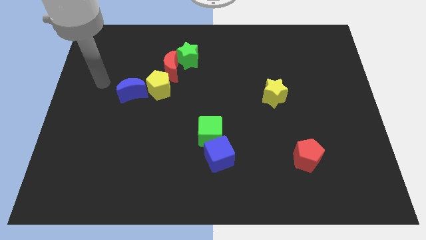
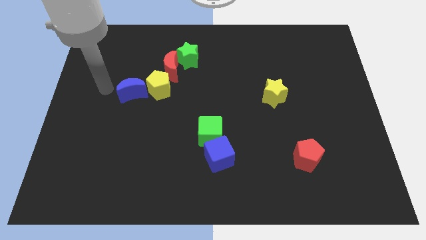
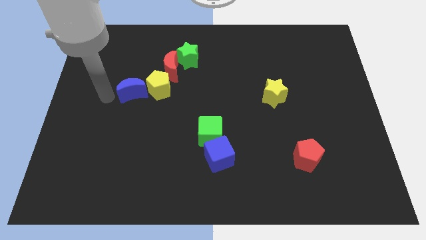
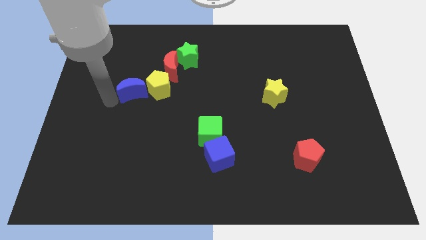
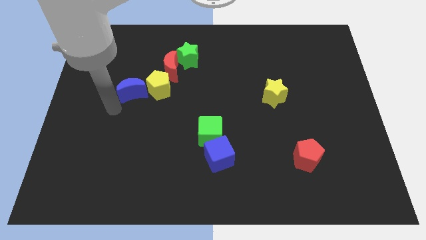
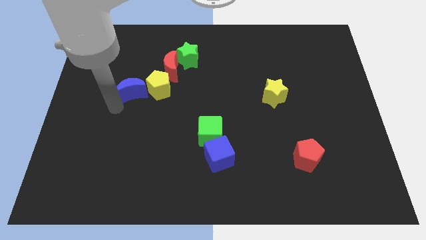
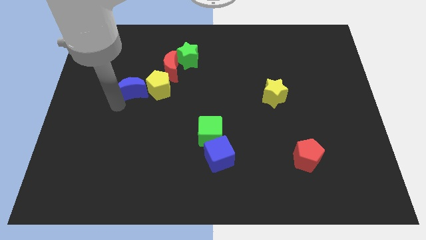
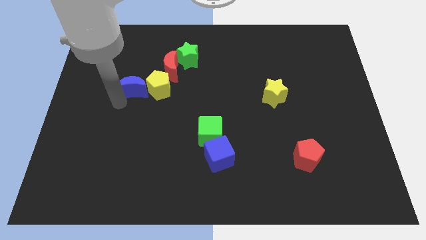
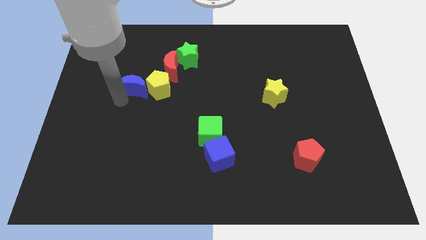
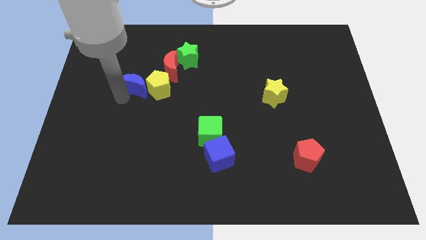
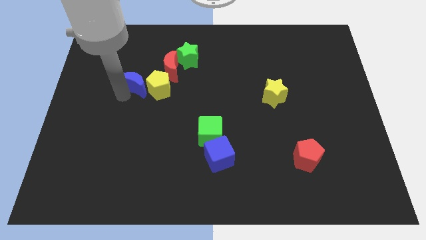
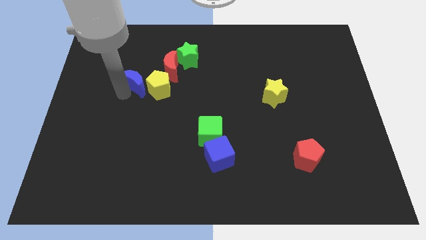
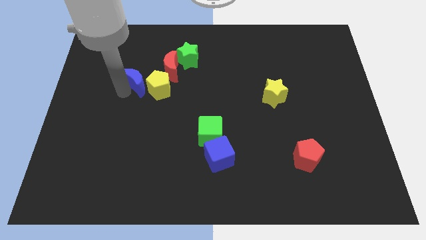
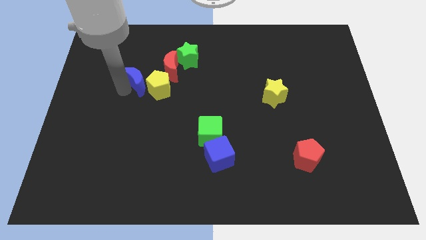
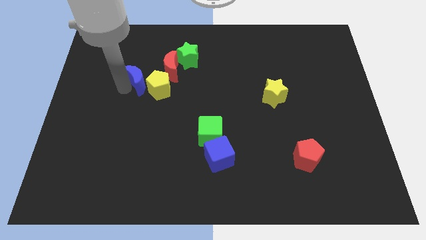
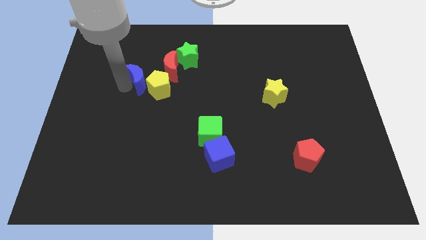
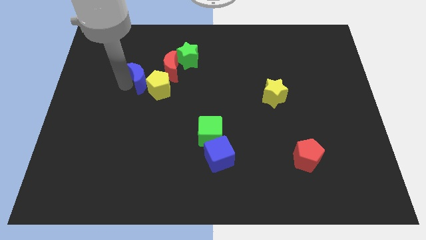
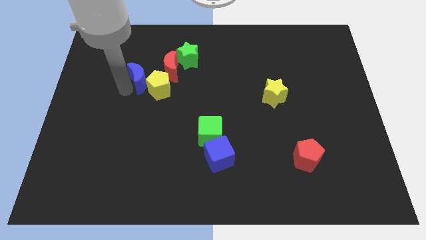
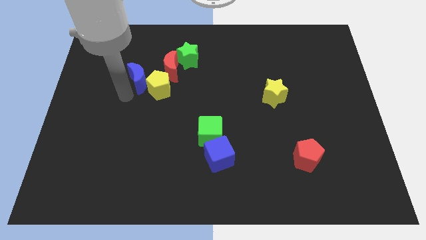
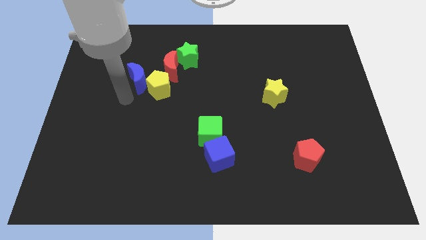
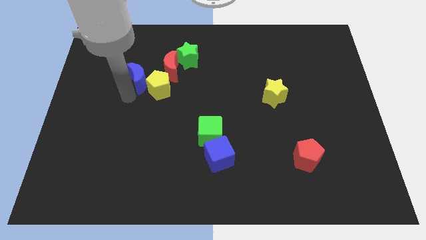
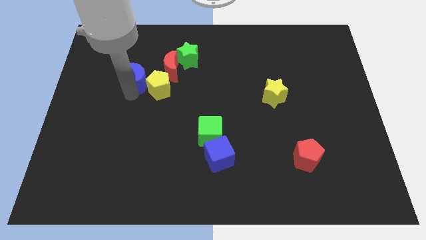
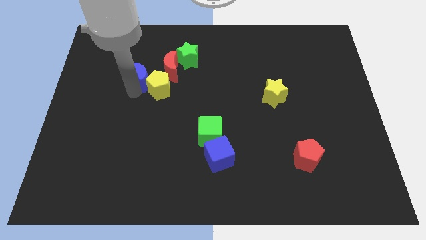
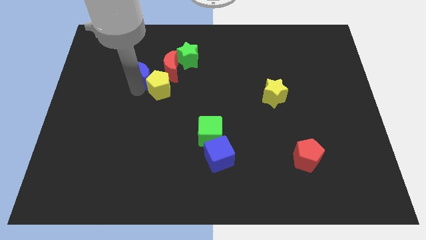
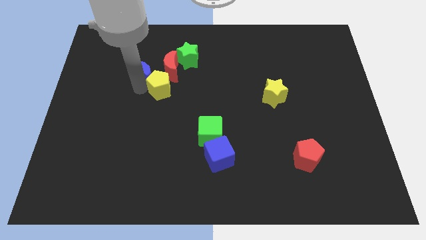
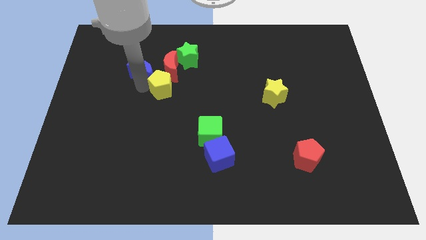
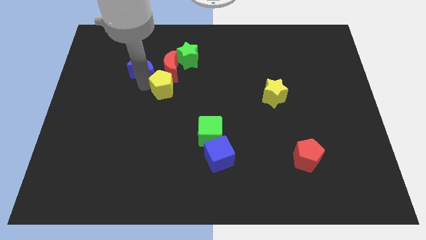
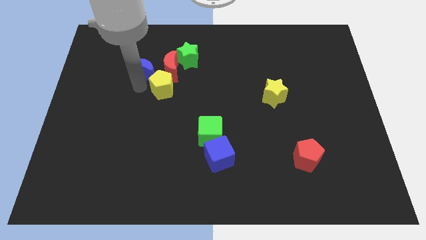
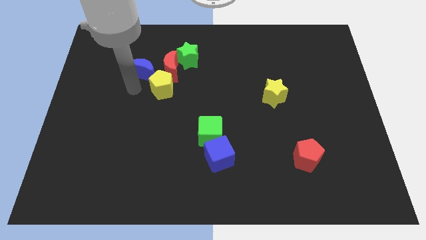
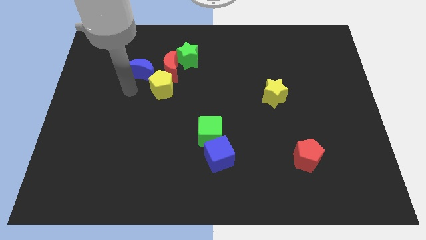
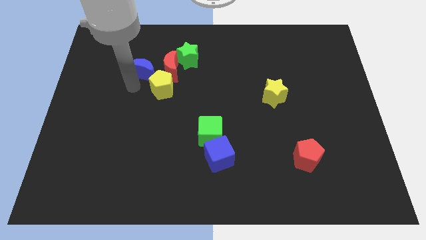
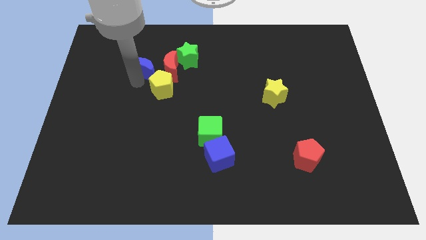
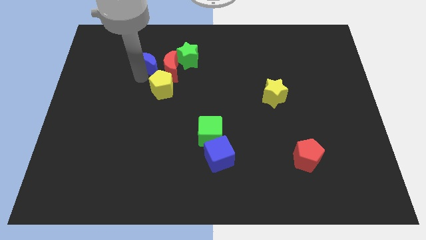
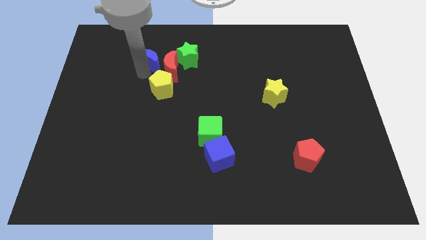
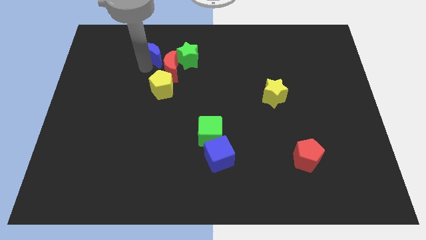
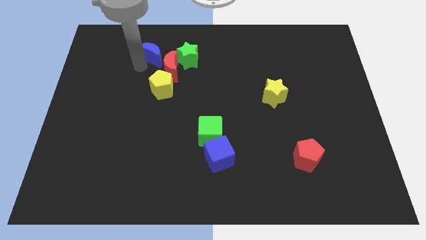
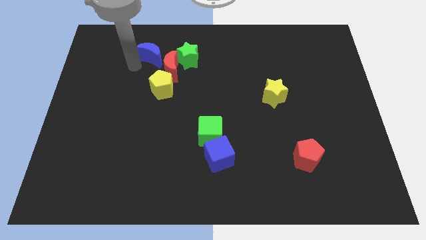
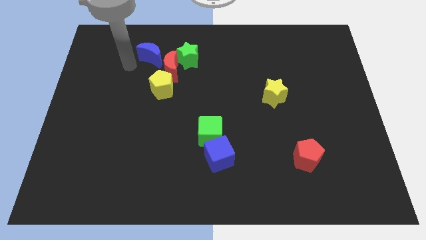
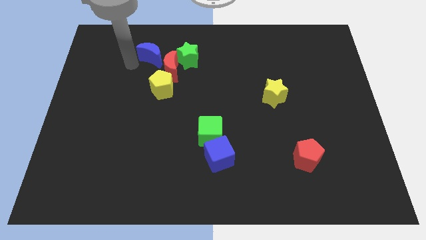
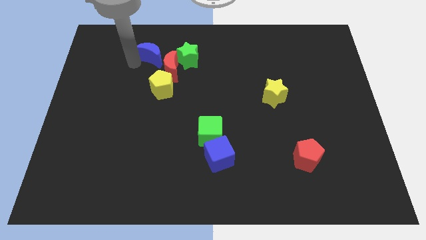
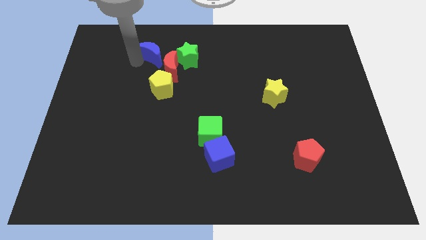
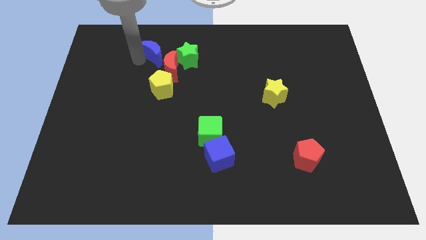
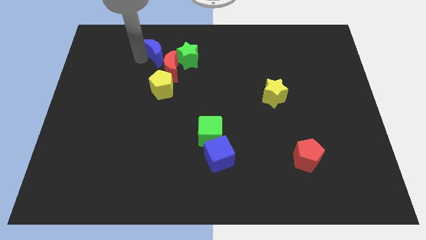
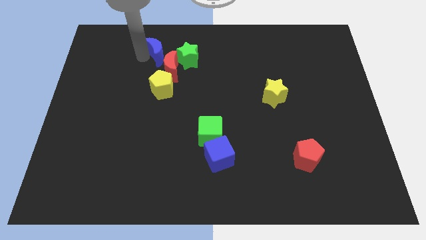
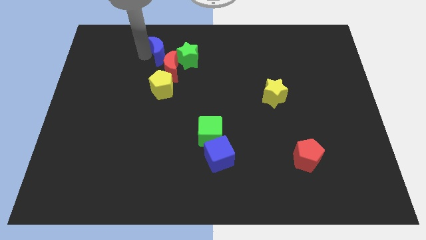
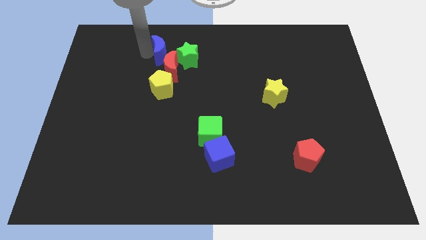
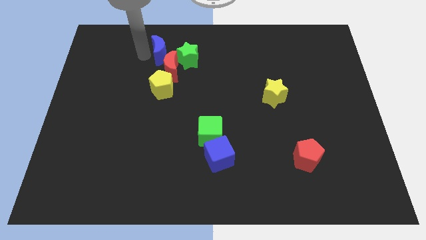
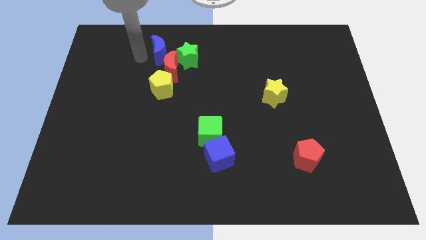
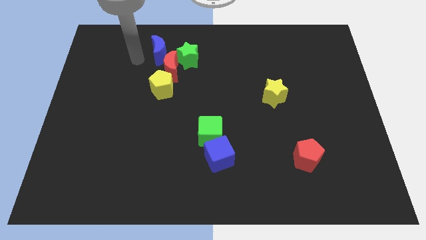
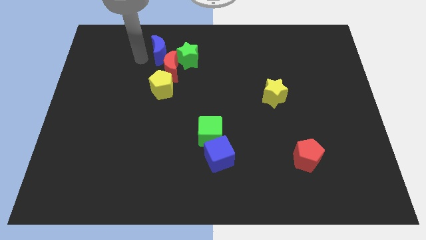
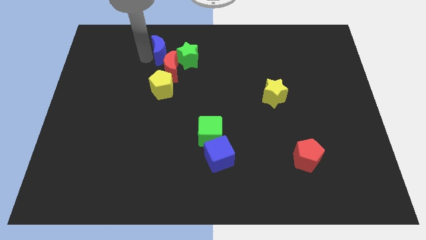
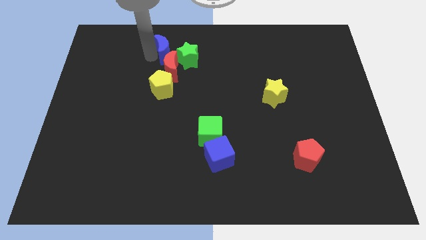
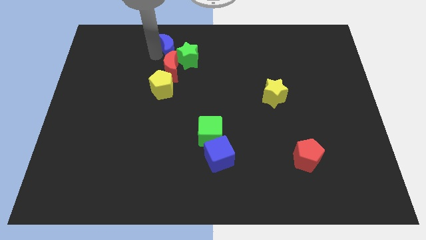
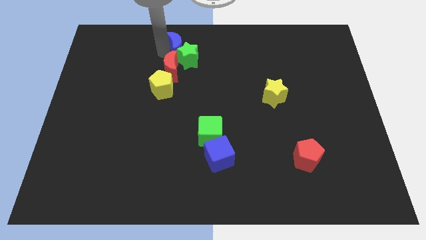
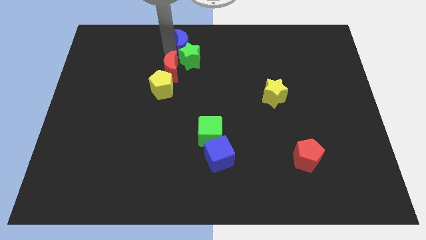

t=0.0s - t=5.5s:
put the blue moon to the towards your base

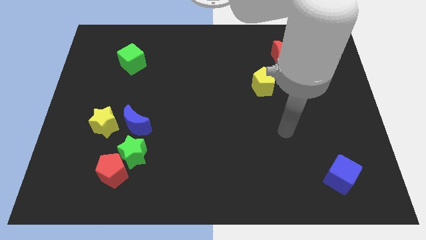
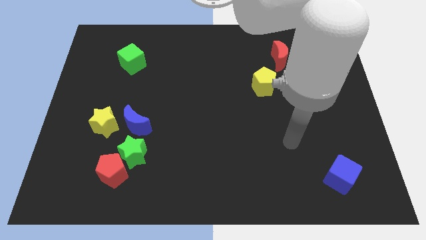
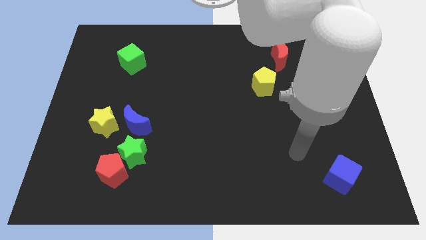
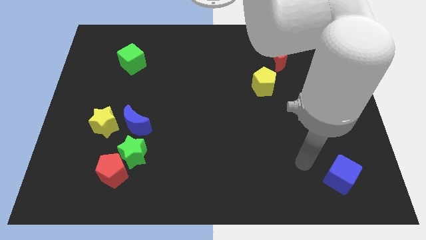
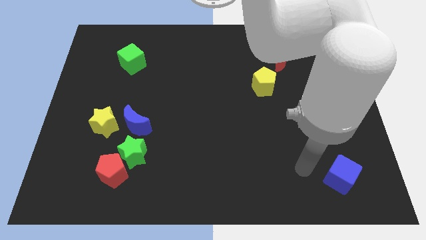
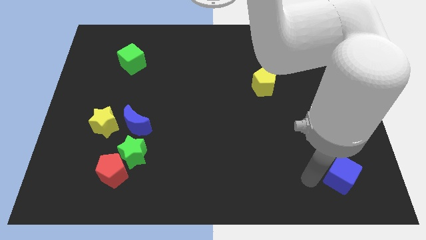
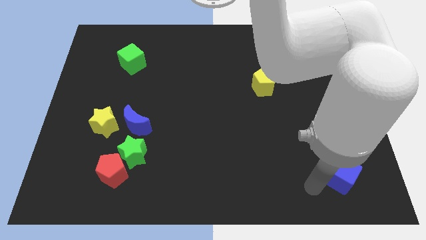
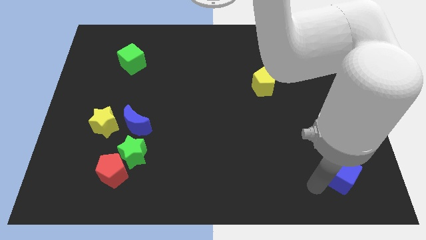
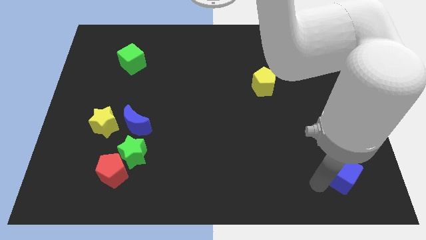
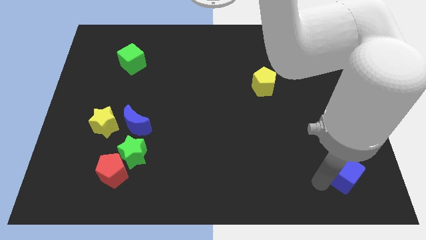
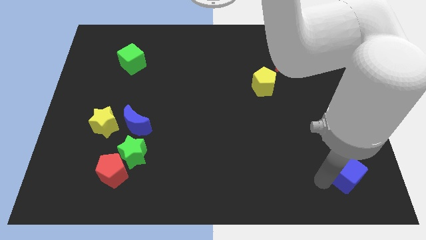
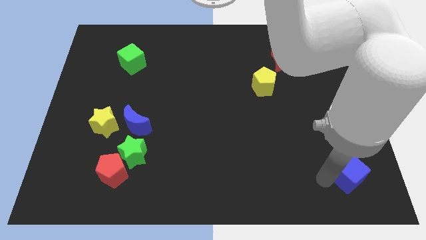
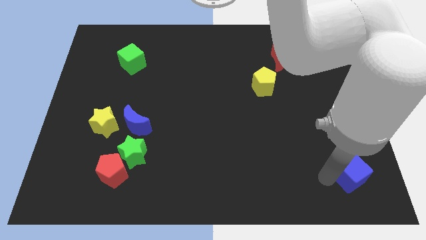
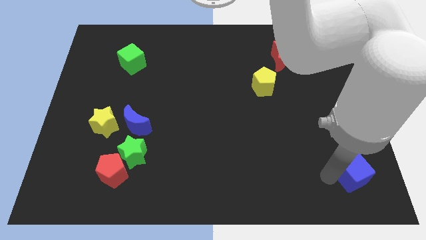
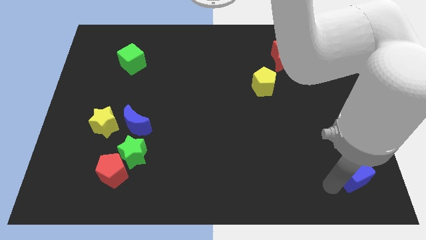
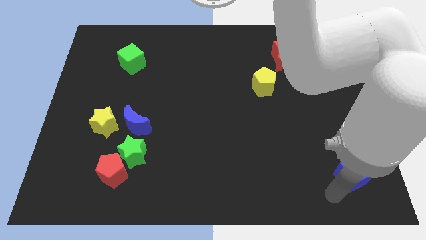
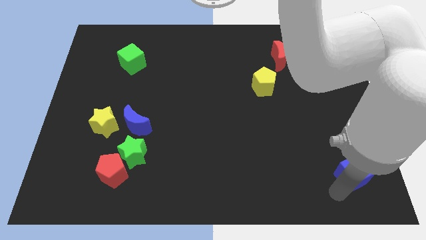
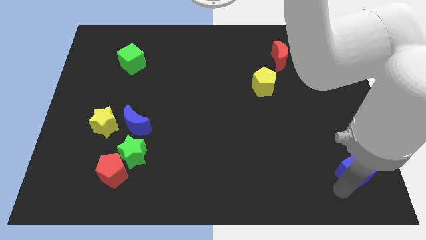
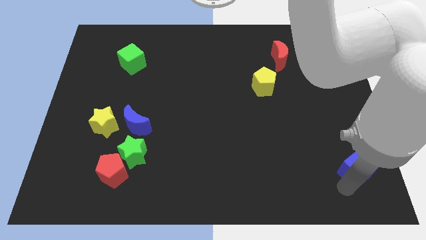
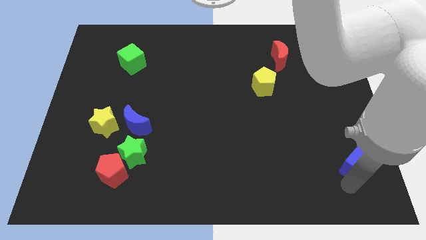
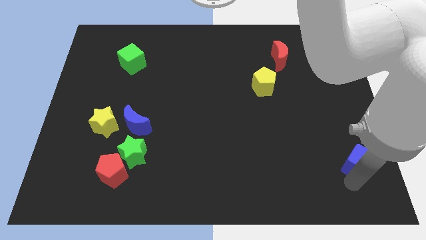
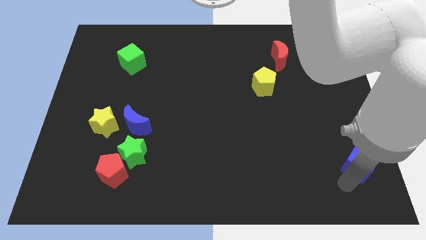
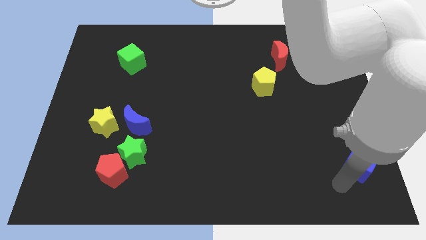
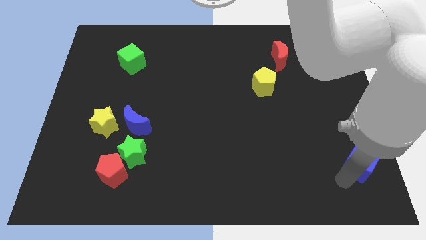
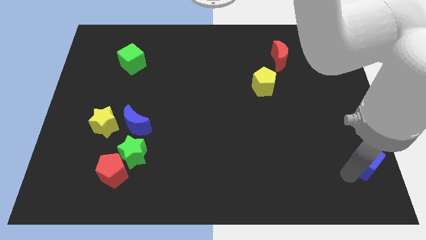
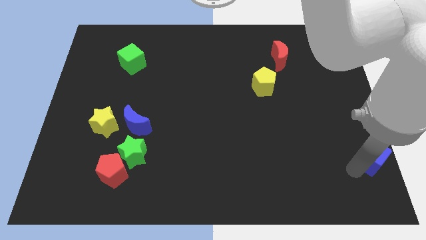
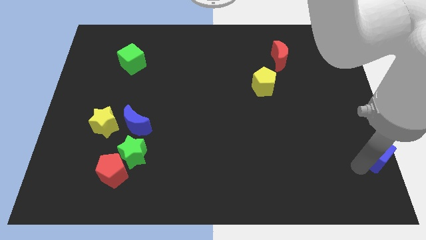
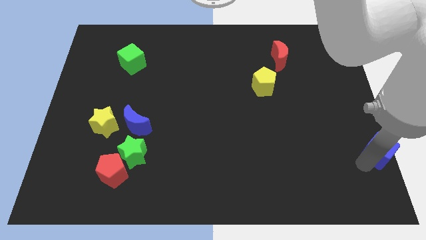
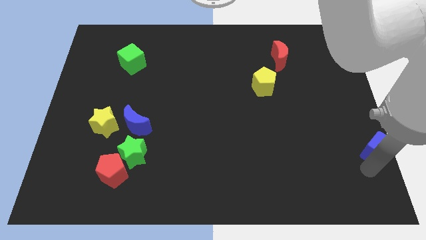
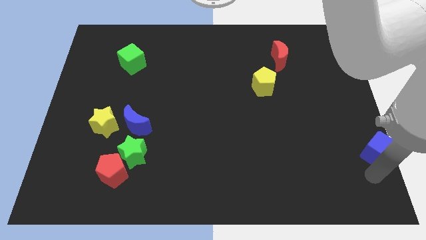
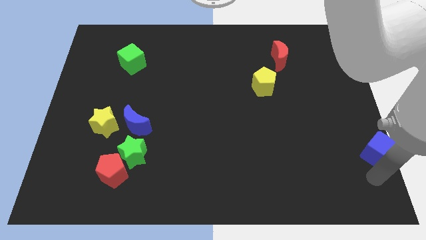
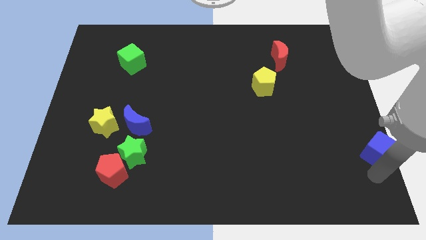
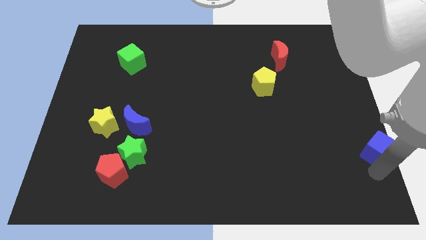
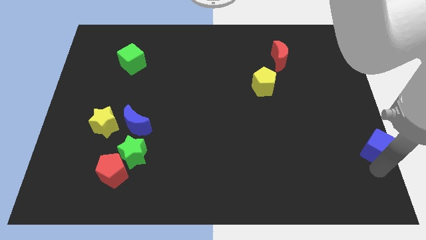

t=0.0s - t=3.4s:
move the blue cube to the center right
